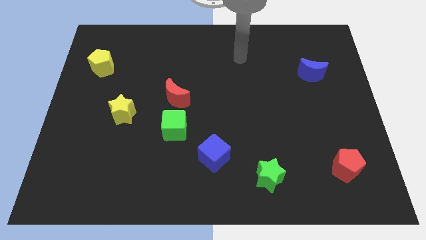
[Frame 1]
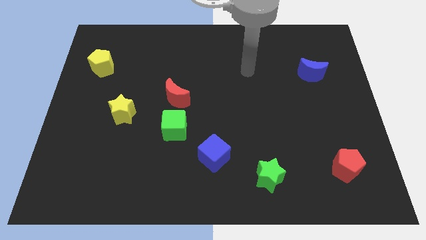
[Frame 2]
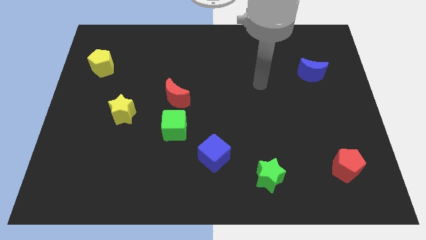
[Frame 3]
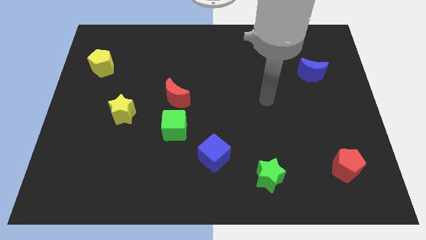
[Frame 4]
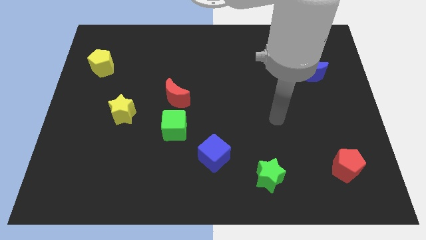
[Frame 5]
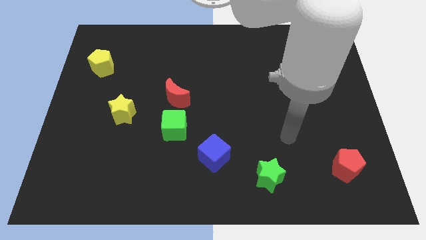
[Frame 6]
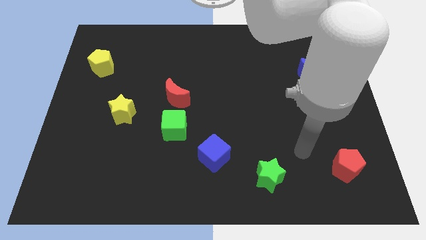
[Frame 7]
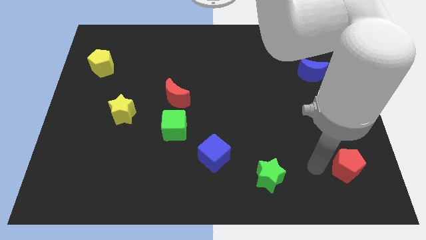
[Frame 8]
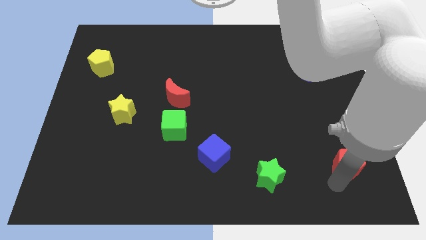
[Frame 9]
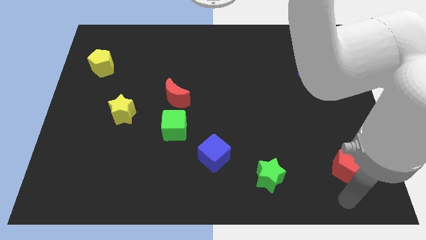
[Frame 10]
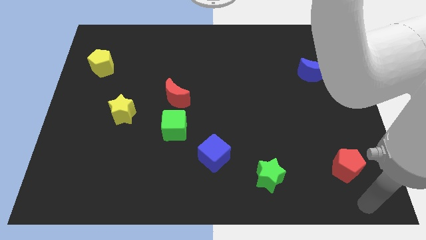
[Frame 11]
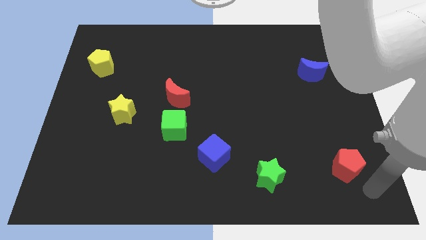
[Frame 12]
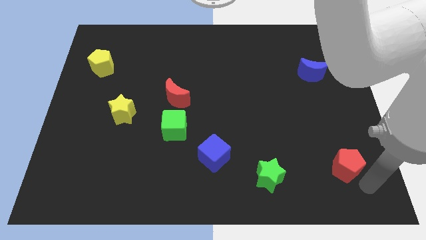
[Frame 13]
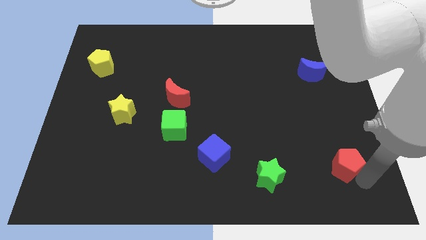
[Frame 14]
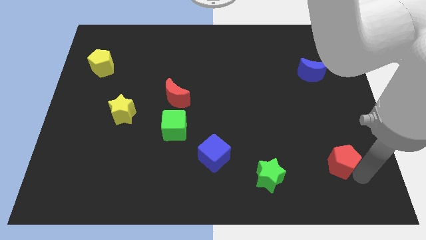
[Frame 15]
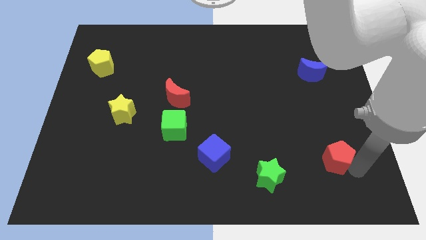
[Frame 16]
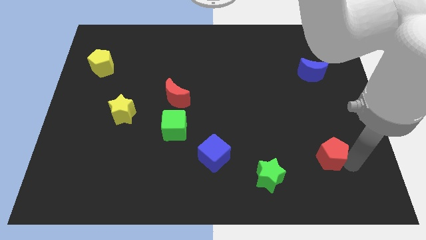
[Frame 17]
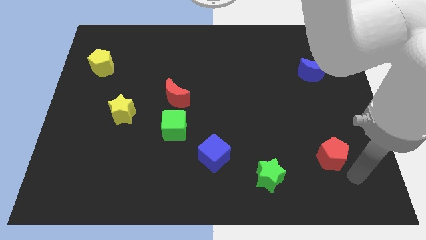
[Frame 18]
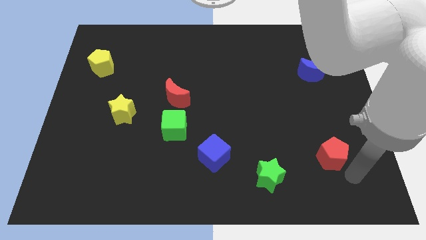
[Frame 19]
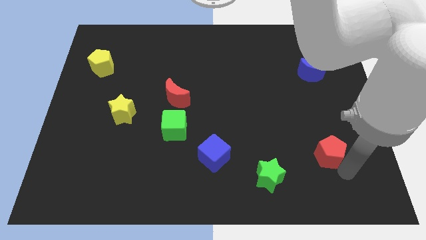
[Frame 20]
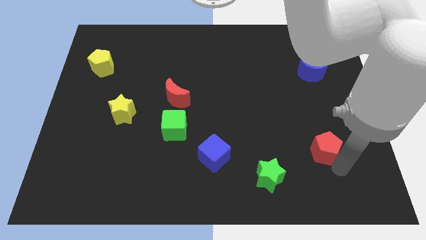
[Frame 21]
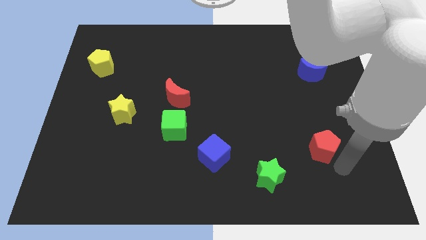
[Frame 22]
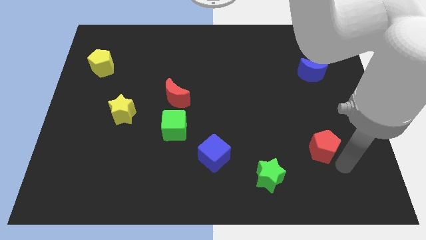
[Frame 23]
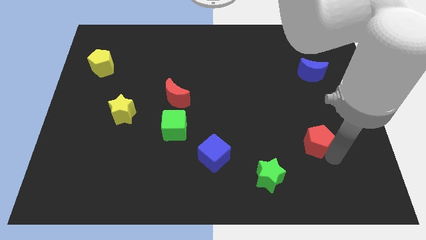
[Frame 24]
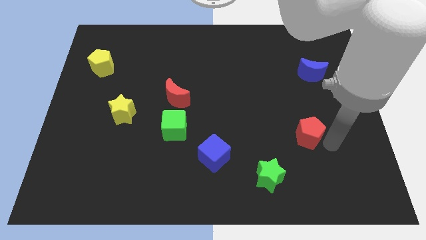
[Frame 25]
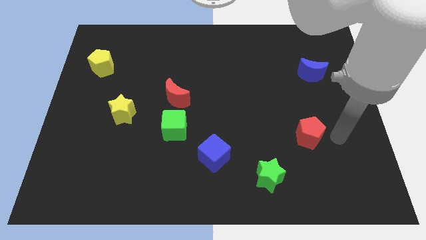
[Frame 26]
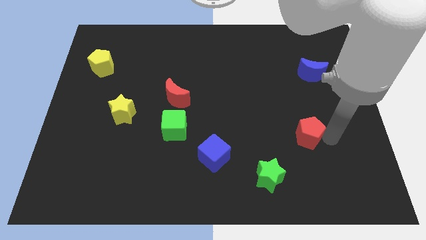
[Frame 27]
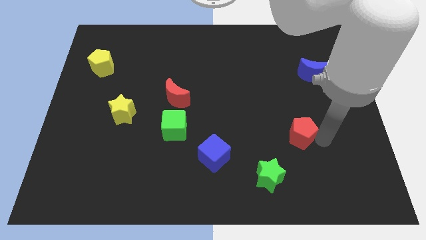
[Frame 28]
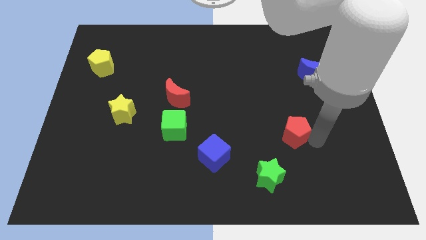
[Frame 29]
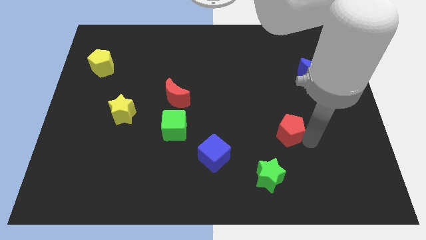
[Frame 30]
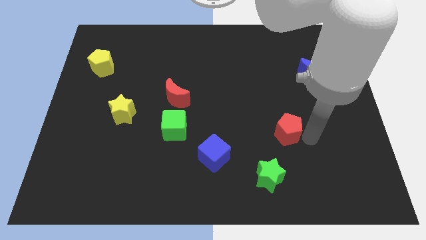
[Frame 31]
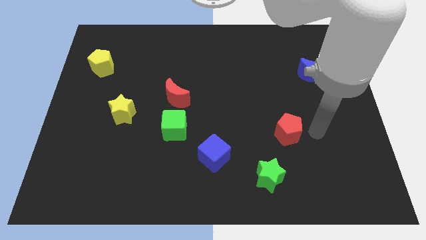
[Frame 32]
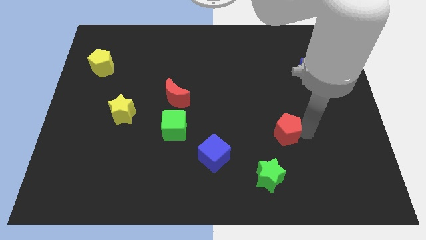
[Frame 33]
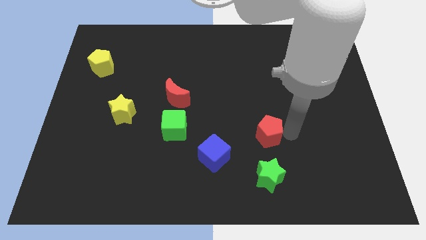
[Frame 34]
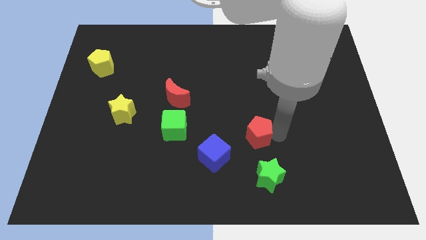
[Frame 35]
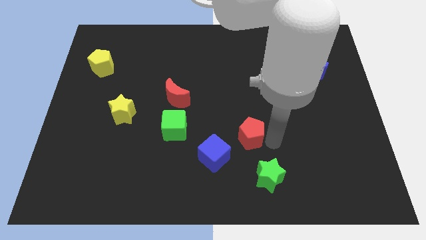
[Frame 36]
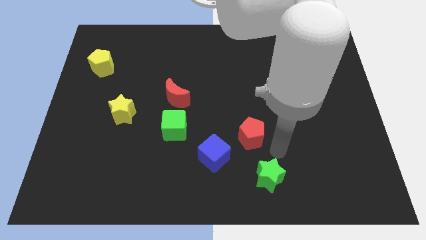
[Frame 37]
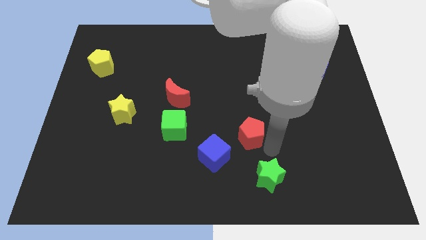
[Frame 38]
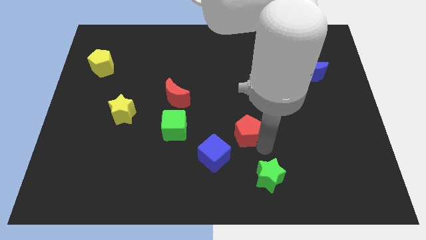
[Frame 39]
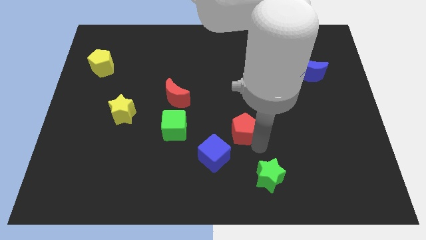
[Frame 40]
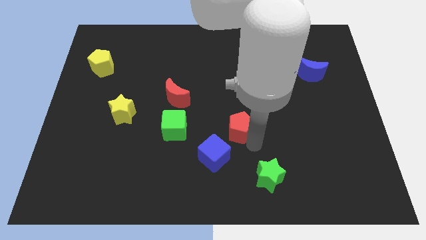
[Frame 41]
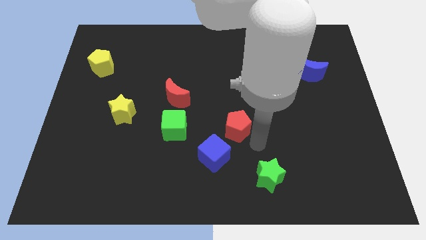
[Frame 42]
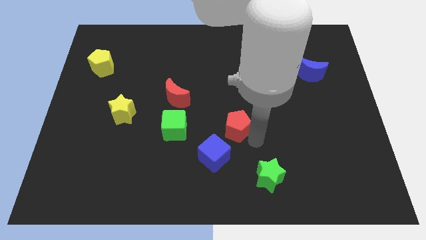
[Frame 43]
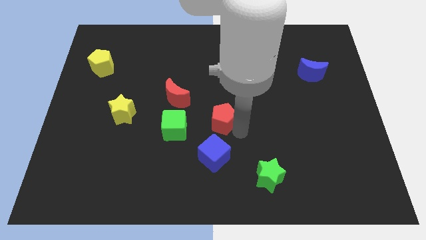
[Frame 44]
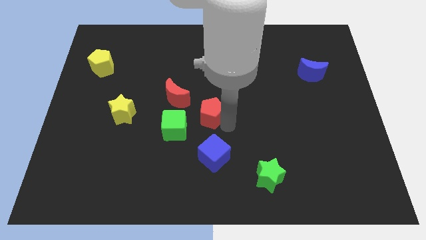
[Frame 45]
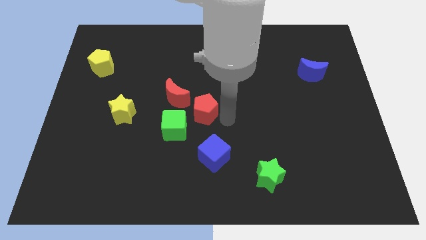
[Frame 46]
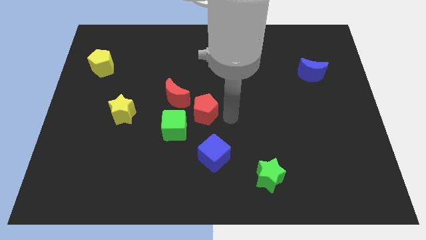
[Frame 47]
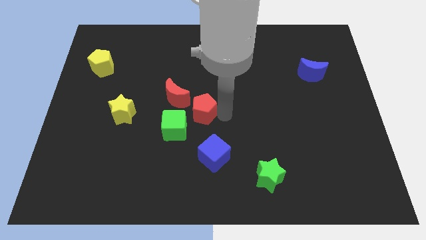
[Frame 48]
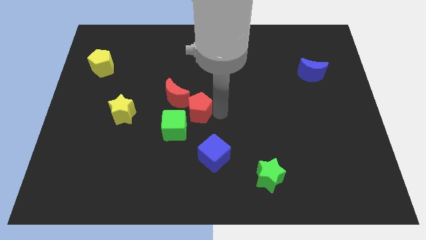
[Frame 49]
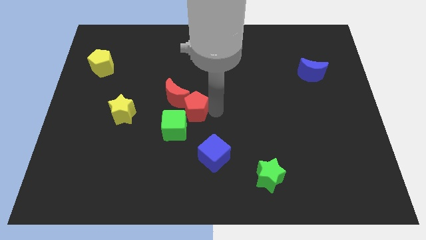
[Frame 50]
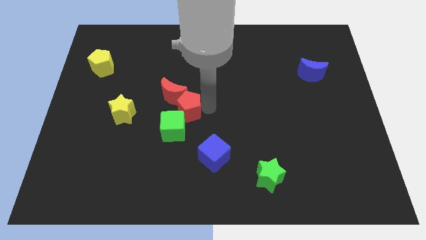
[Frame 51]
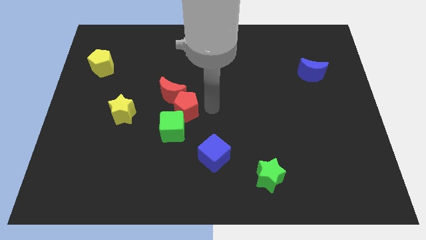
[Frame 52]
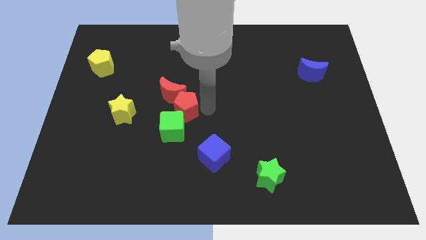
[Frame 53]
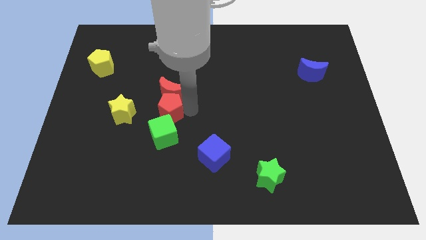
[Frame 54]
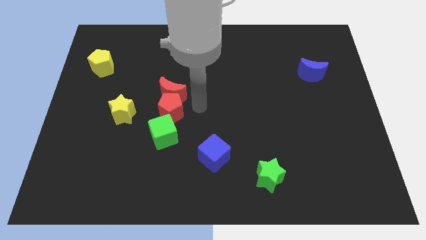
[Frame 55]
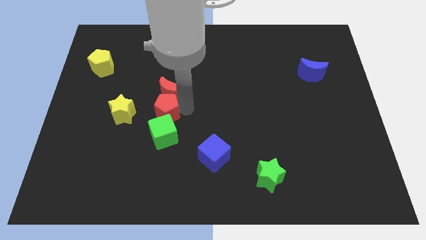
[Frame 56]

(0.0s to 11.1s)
push the red pentagon diagonally up and to the left of the green cube

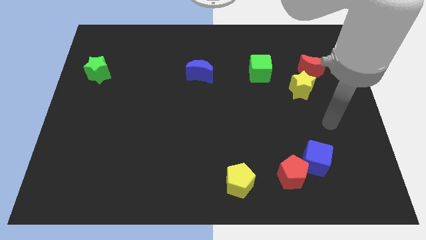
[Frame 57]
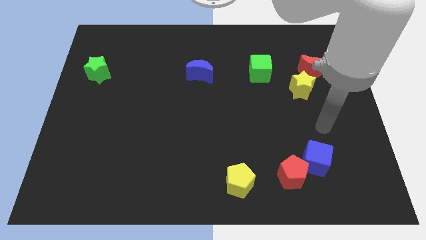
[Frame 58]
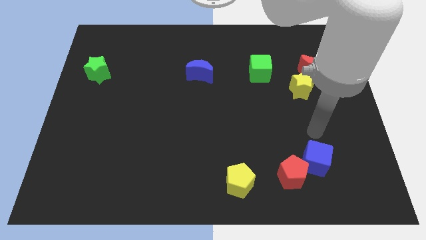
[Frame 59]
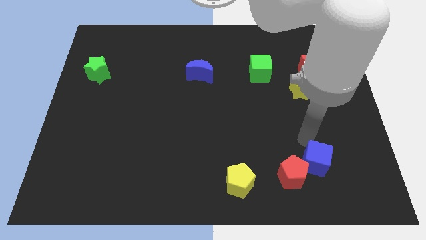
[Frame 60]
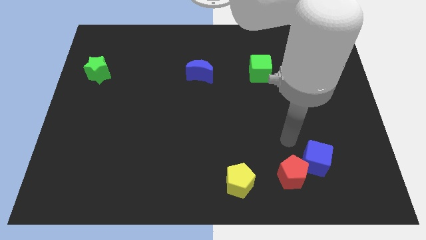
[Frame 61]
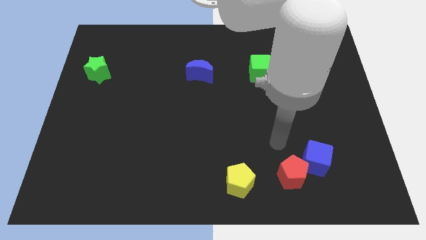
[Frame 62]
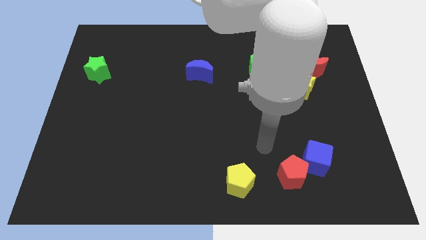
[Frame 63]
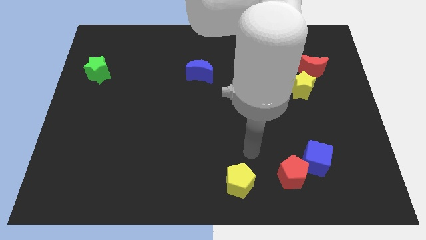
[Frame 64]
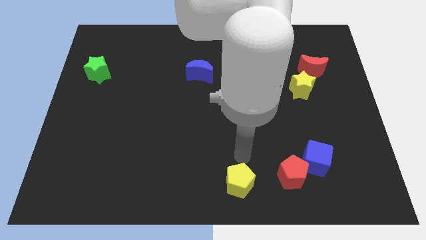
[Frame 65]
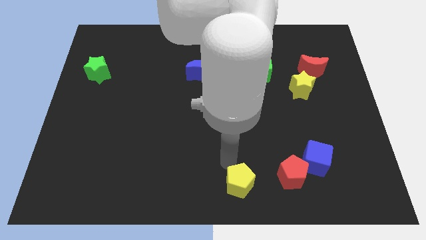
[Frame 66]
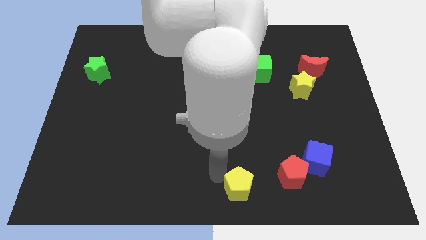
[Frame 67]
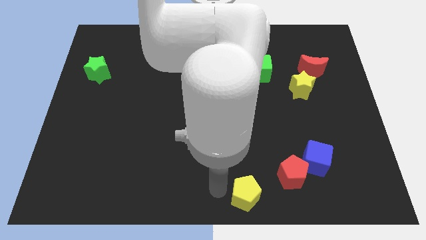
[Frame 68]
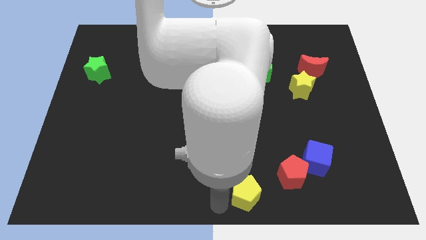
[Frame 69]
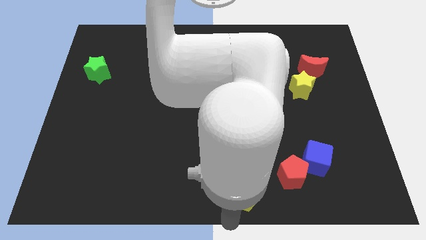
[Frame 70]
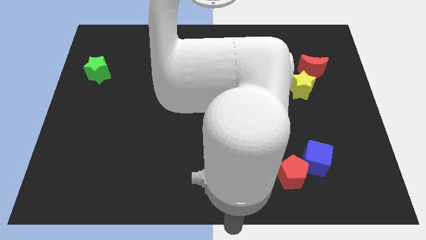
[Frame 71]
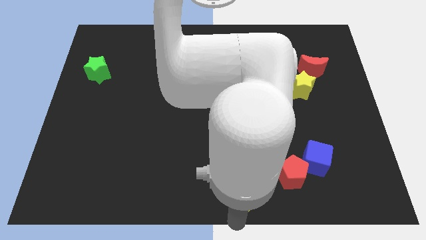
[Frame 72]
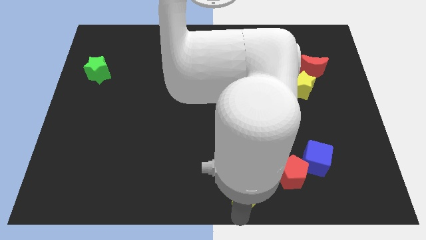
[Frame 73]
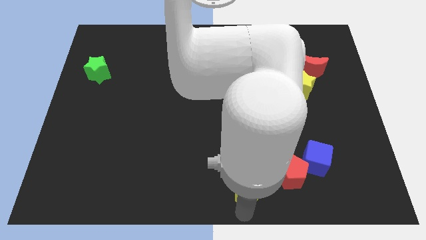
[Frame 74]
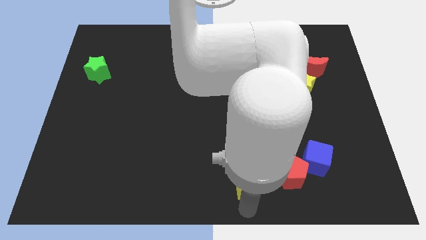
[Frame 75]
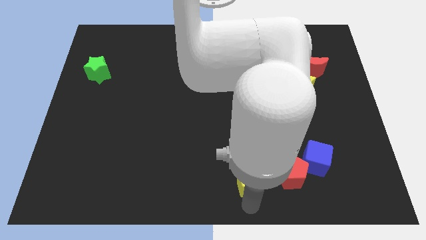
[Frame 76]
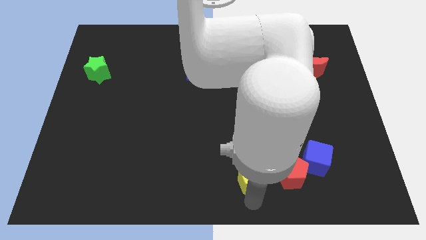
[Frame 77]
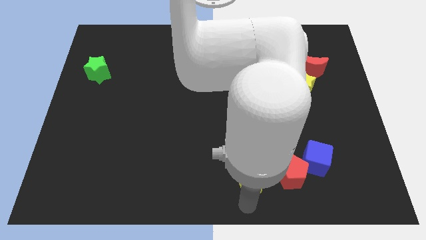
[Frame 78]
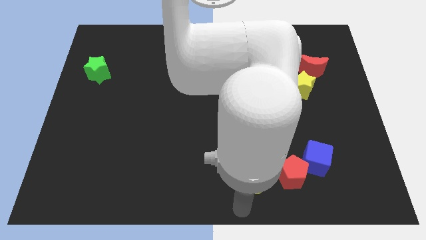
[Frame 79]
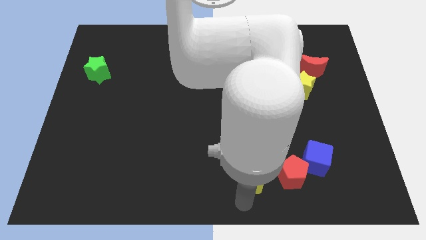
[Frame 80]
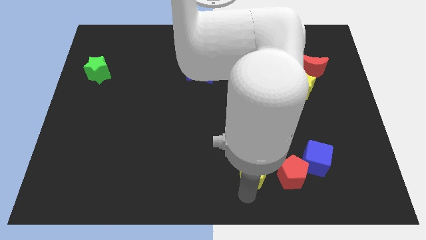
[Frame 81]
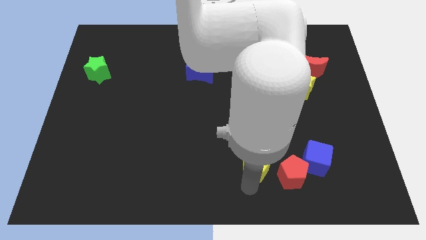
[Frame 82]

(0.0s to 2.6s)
move the yellow pentagon to the top left side of the red pentagon
